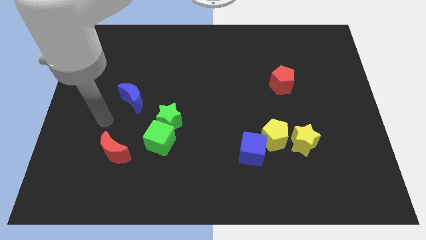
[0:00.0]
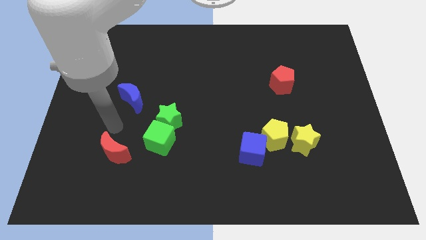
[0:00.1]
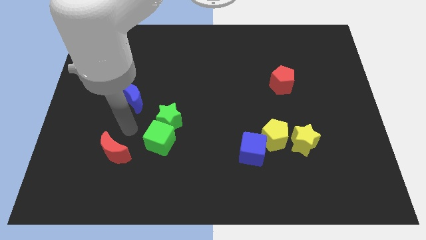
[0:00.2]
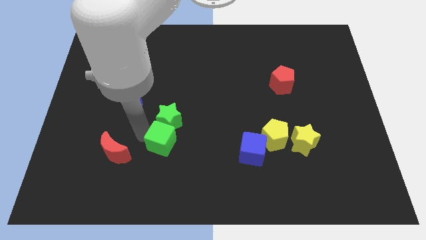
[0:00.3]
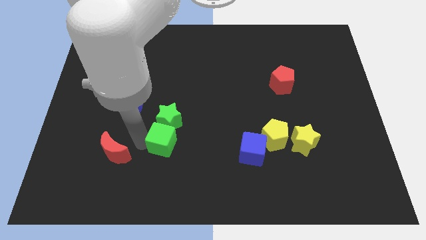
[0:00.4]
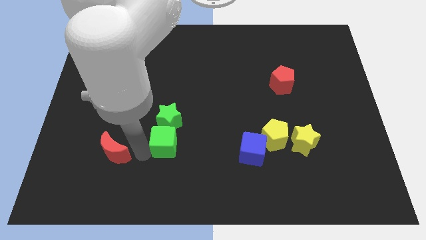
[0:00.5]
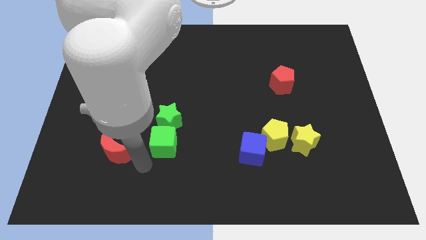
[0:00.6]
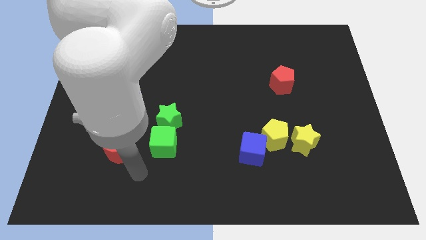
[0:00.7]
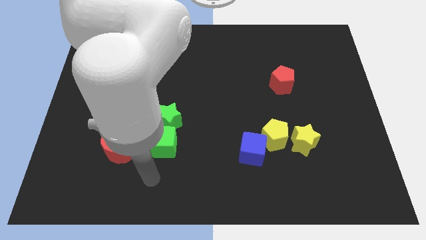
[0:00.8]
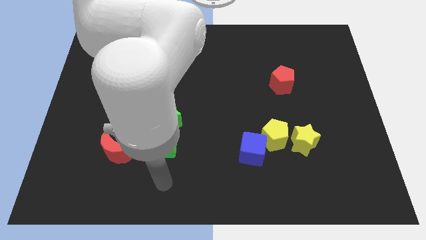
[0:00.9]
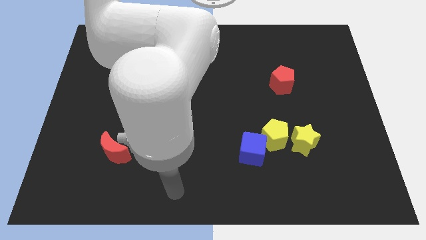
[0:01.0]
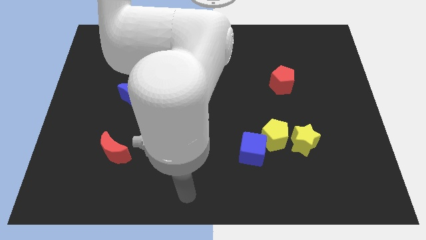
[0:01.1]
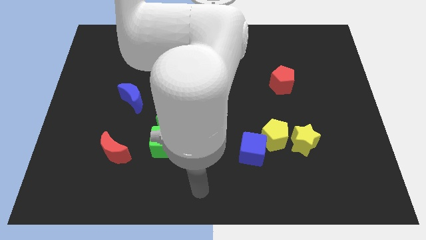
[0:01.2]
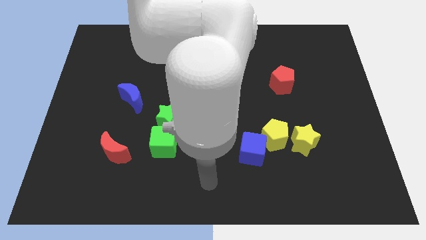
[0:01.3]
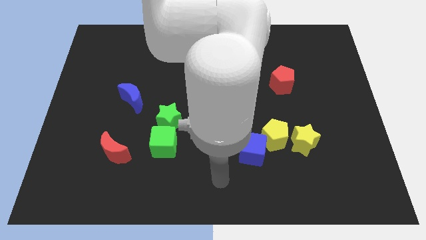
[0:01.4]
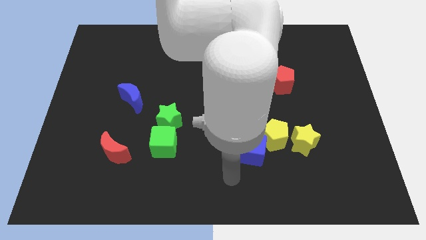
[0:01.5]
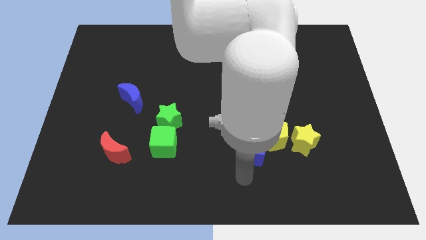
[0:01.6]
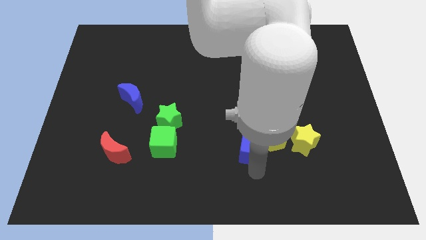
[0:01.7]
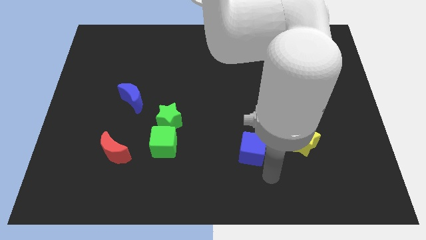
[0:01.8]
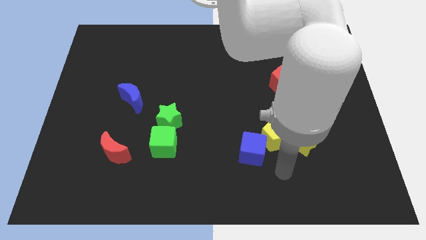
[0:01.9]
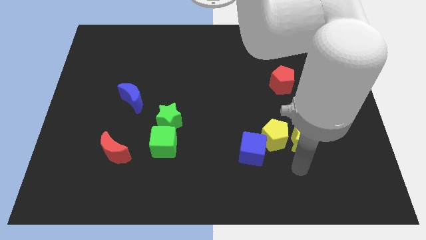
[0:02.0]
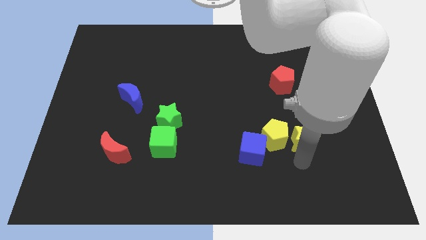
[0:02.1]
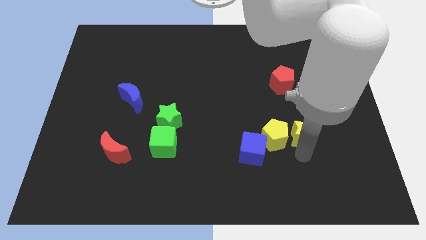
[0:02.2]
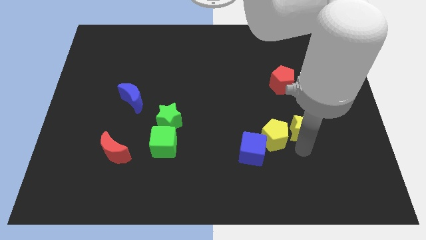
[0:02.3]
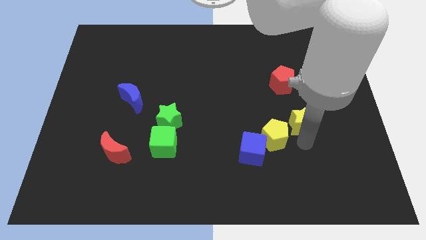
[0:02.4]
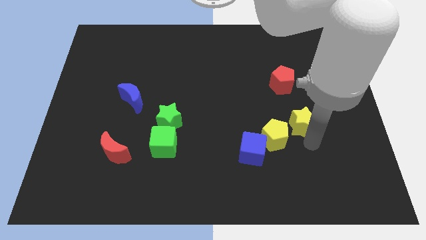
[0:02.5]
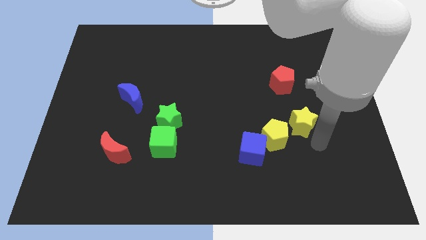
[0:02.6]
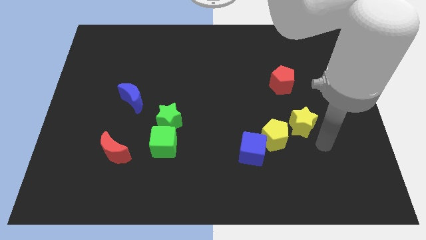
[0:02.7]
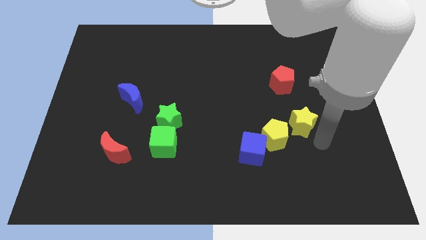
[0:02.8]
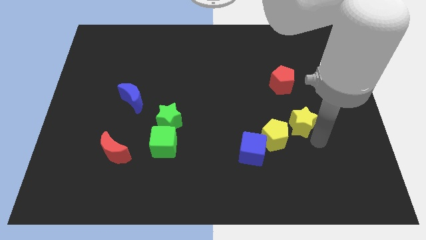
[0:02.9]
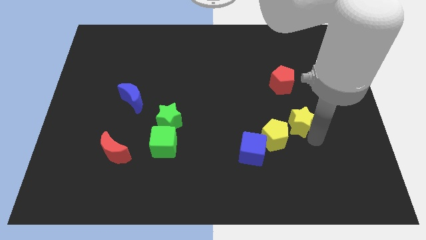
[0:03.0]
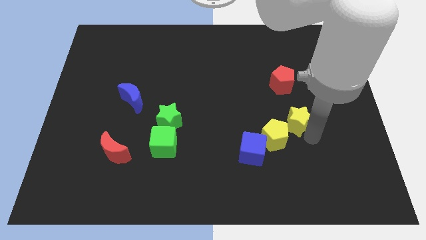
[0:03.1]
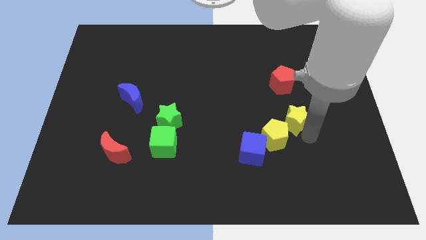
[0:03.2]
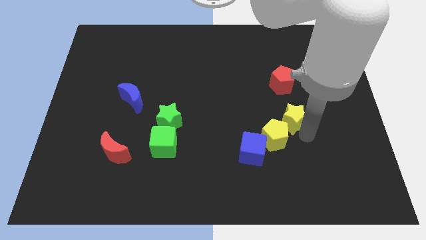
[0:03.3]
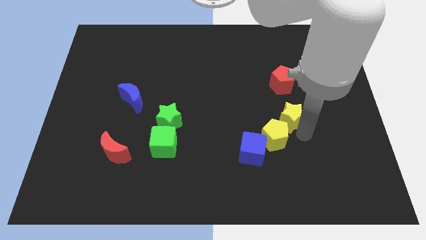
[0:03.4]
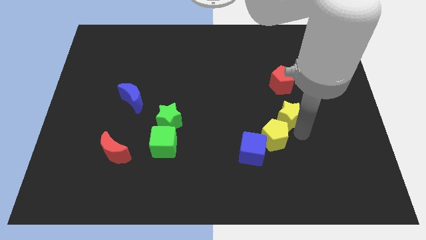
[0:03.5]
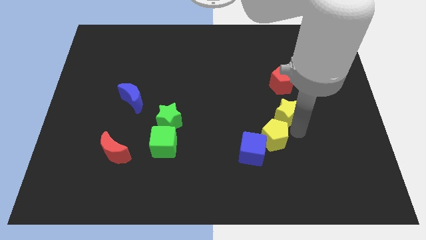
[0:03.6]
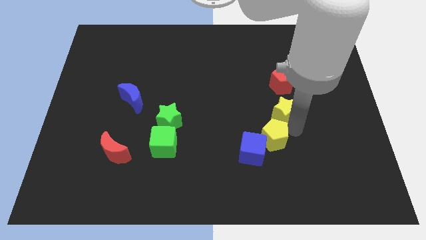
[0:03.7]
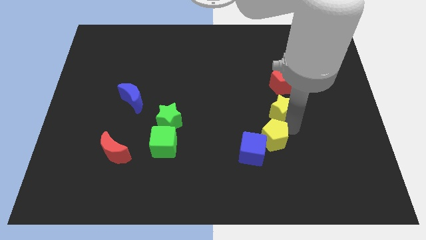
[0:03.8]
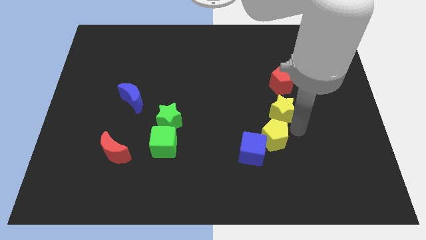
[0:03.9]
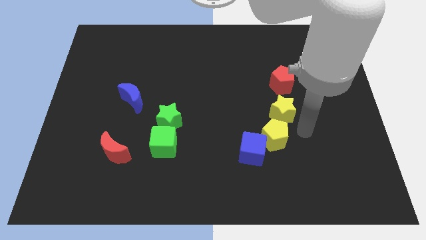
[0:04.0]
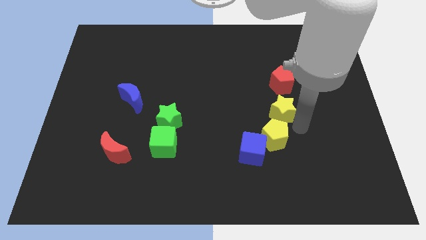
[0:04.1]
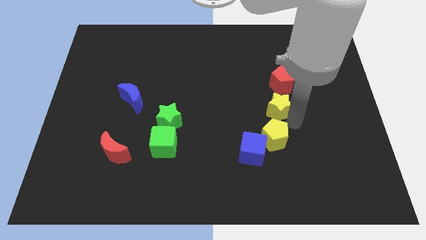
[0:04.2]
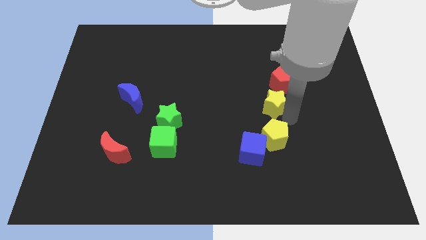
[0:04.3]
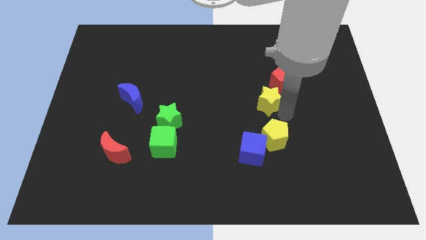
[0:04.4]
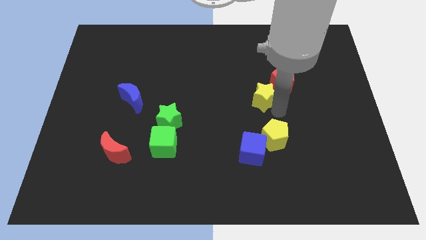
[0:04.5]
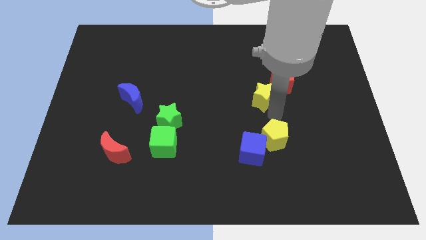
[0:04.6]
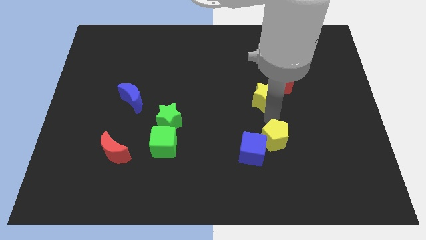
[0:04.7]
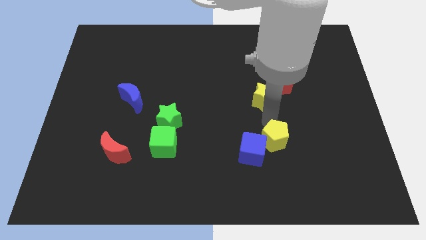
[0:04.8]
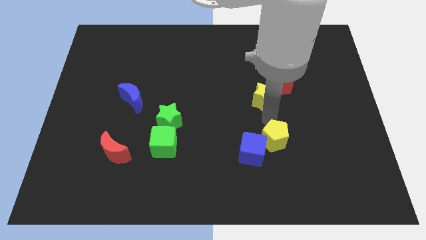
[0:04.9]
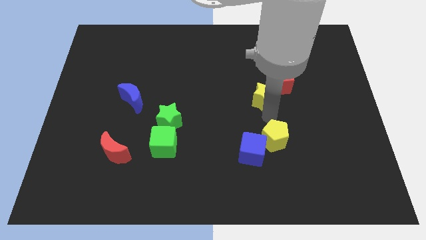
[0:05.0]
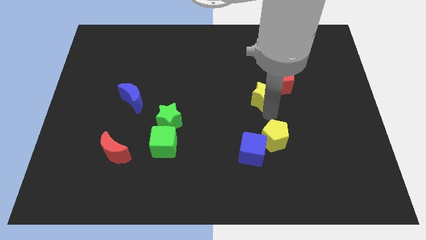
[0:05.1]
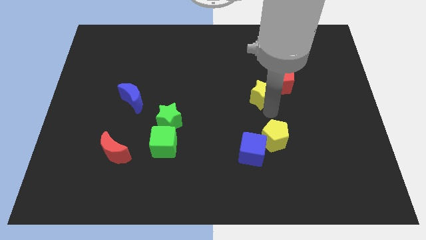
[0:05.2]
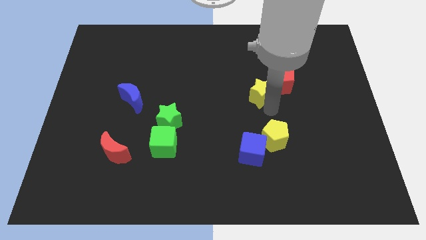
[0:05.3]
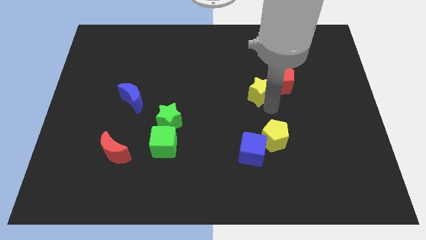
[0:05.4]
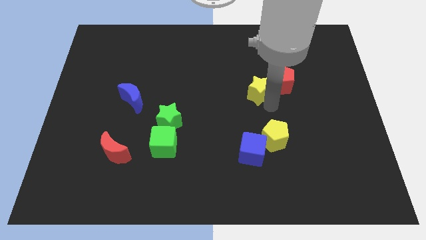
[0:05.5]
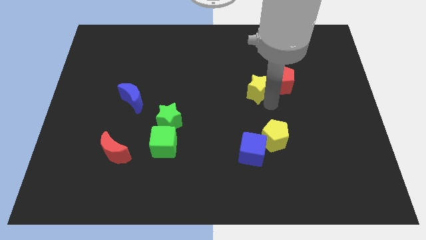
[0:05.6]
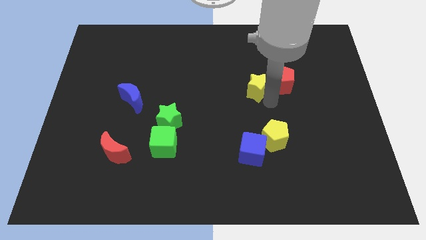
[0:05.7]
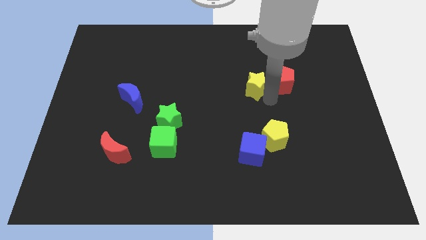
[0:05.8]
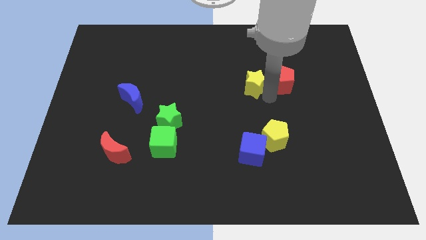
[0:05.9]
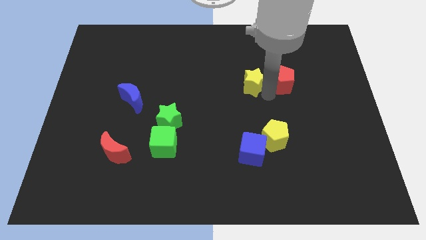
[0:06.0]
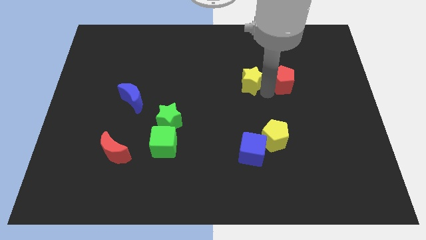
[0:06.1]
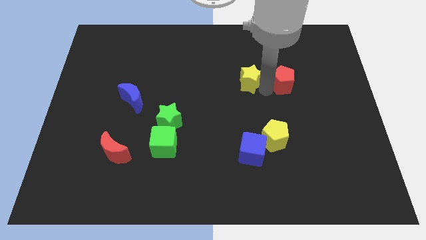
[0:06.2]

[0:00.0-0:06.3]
move the yellow star to the top left of the red pentagon

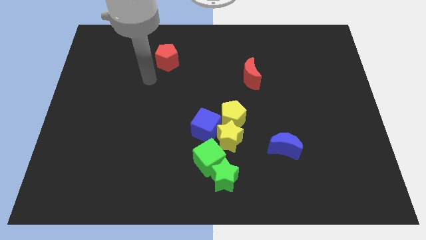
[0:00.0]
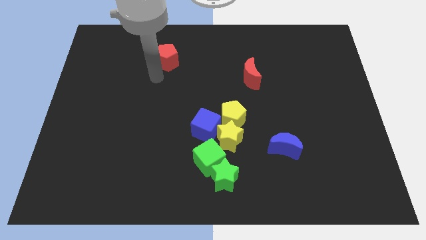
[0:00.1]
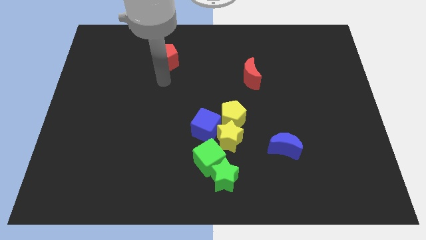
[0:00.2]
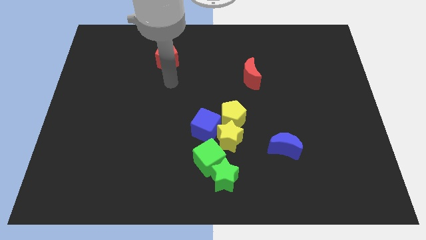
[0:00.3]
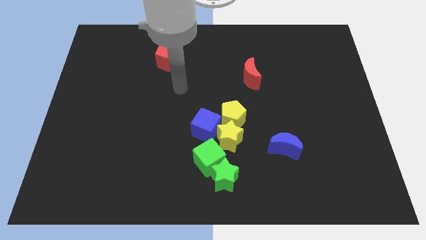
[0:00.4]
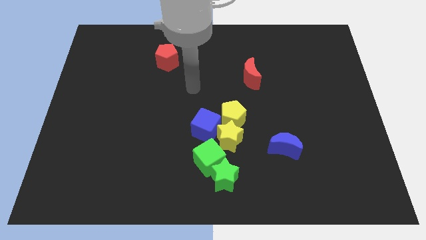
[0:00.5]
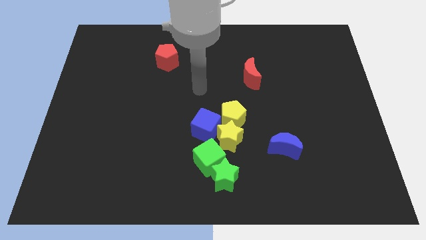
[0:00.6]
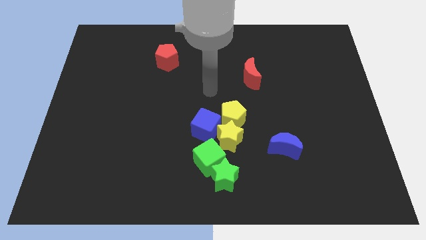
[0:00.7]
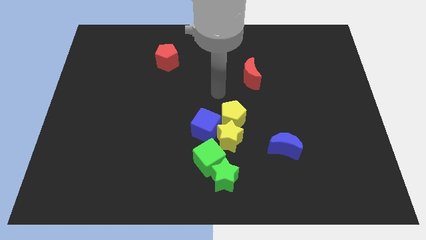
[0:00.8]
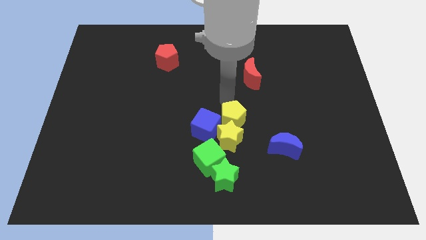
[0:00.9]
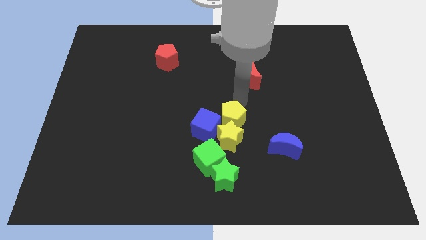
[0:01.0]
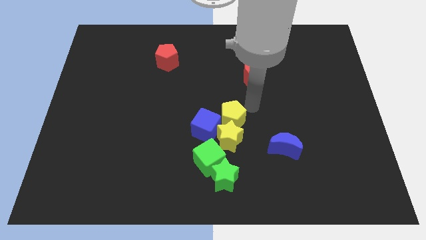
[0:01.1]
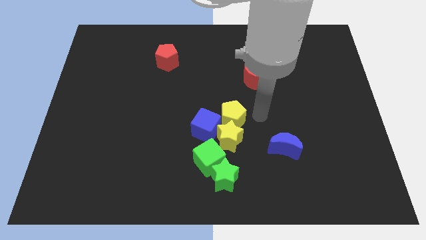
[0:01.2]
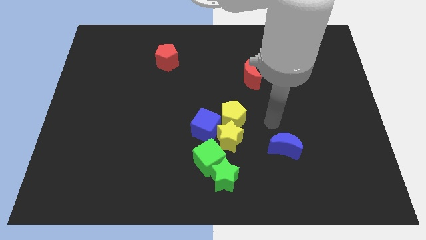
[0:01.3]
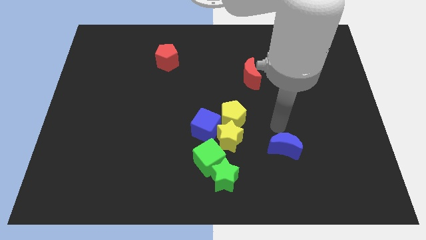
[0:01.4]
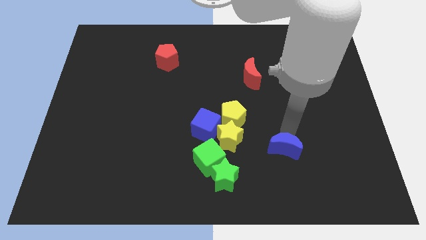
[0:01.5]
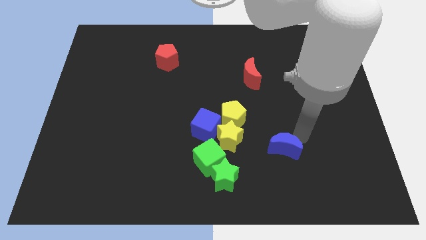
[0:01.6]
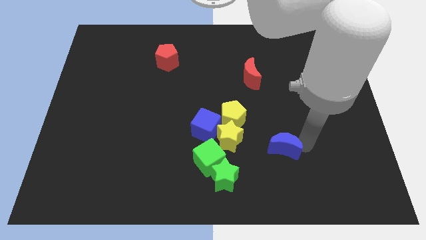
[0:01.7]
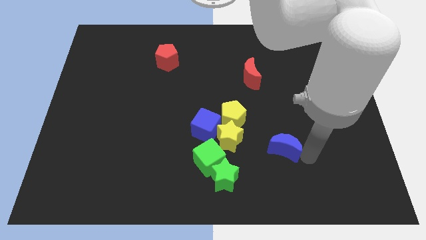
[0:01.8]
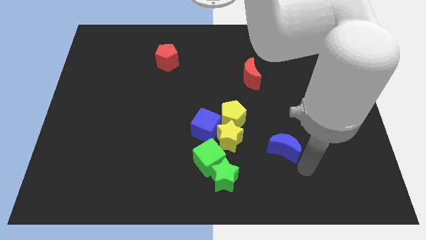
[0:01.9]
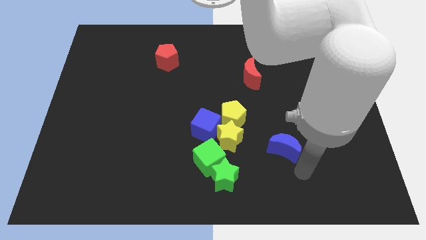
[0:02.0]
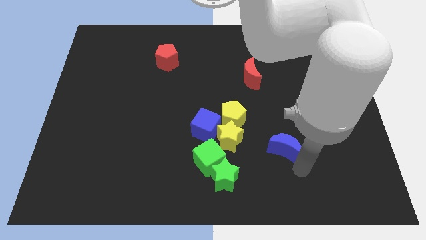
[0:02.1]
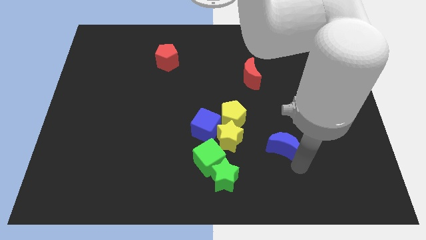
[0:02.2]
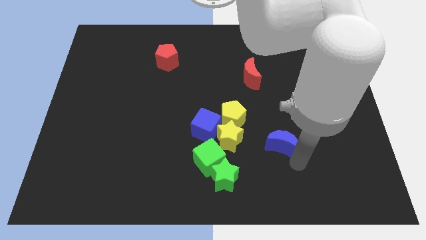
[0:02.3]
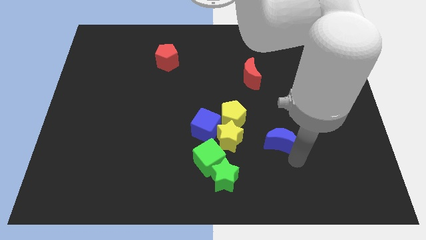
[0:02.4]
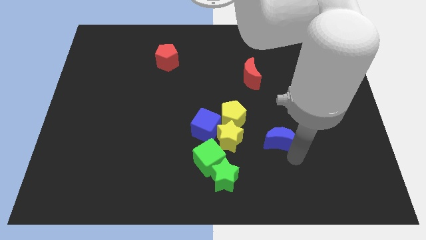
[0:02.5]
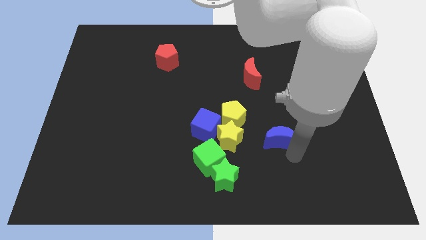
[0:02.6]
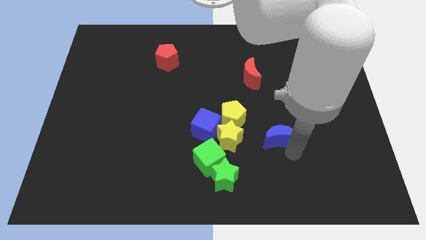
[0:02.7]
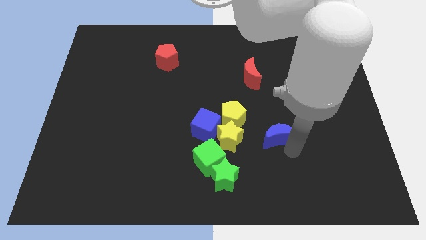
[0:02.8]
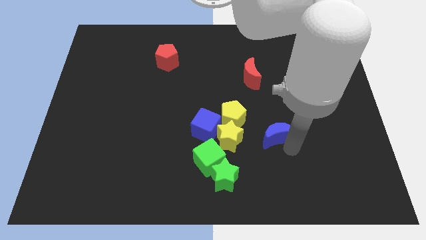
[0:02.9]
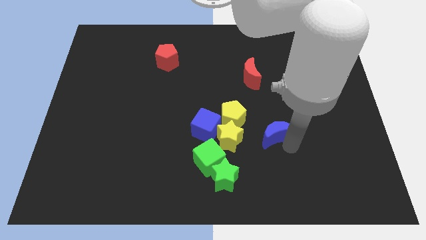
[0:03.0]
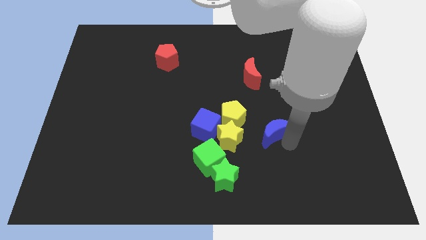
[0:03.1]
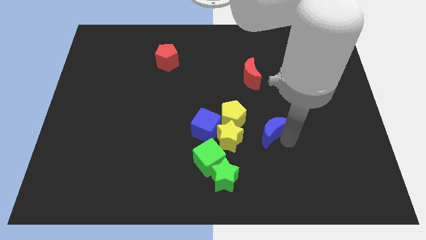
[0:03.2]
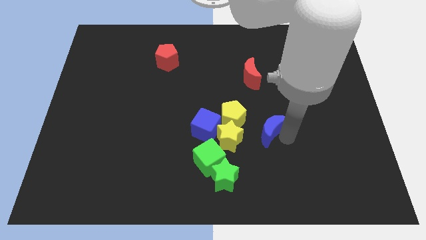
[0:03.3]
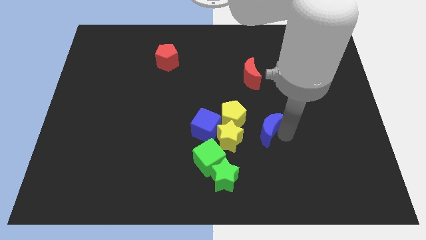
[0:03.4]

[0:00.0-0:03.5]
slide the blue moon to the top right side of the yellow star
